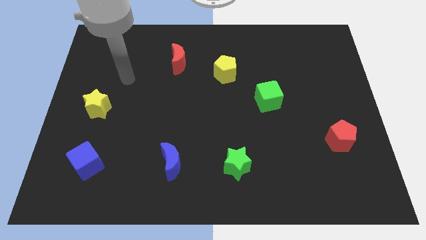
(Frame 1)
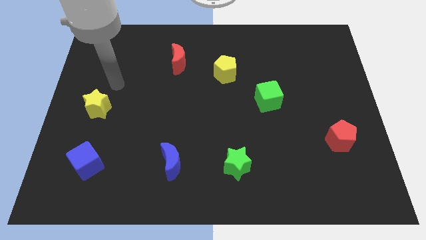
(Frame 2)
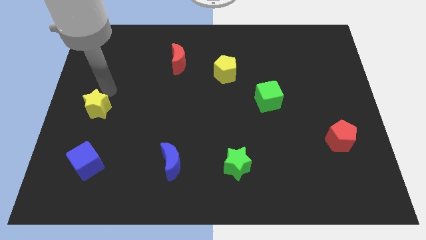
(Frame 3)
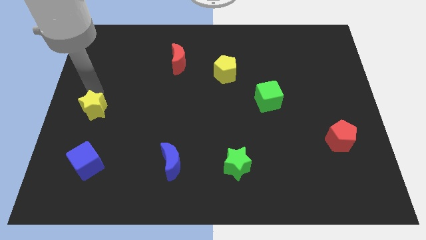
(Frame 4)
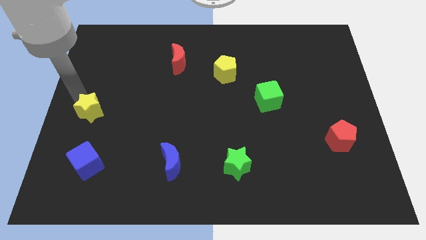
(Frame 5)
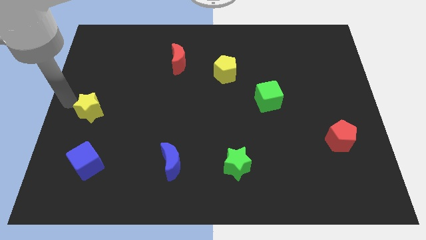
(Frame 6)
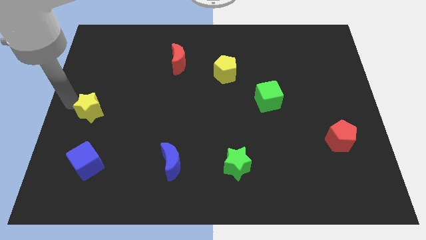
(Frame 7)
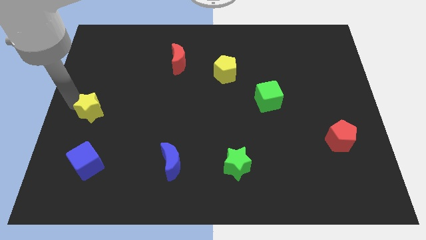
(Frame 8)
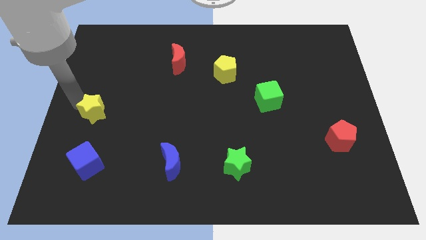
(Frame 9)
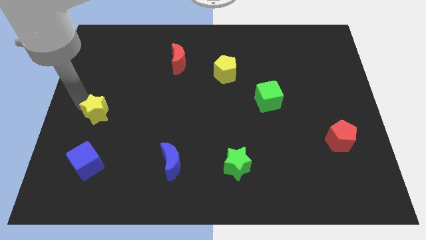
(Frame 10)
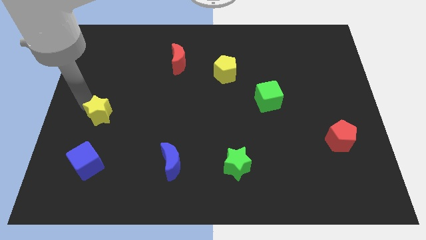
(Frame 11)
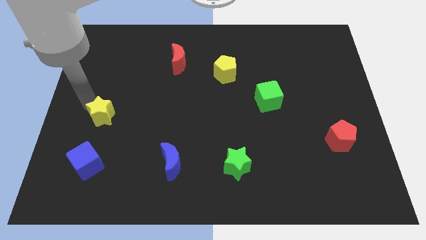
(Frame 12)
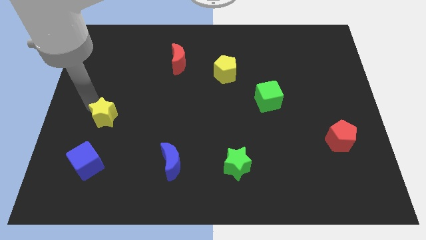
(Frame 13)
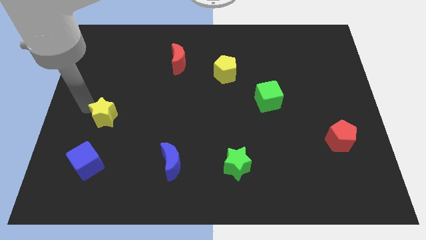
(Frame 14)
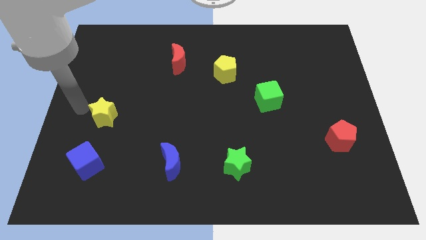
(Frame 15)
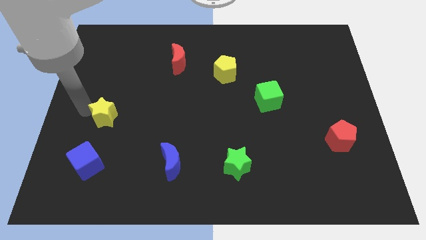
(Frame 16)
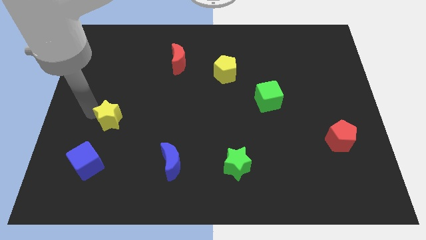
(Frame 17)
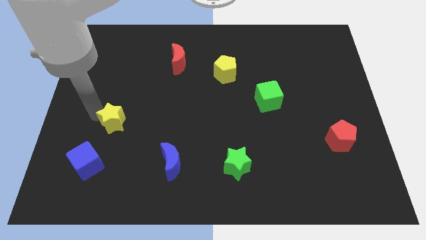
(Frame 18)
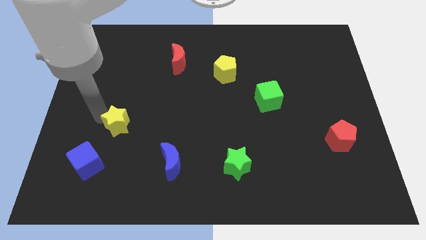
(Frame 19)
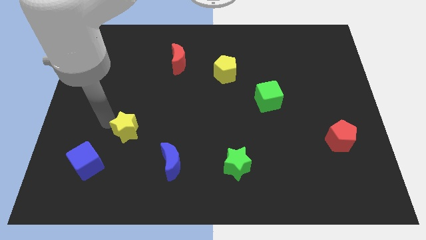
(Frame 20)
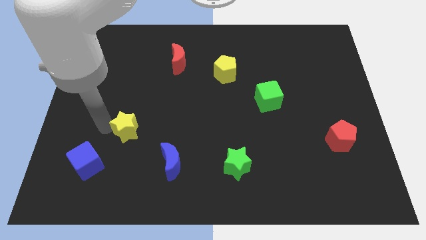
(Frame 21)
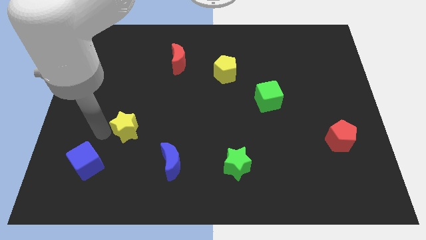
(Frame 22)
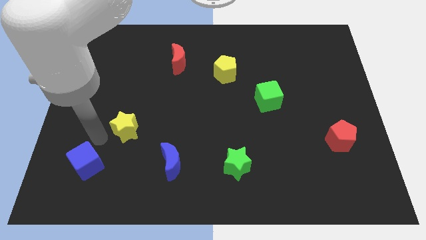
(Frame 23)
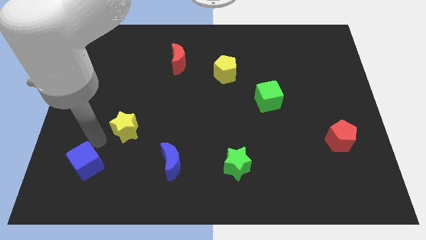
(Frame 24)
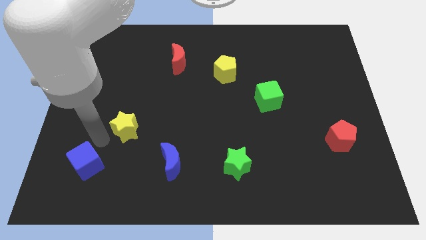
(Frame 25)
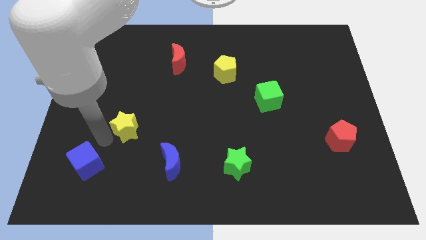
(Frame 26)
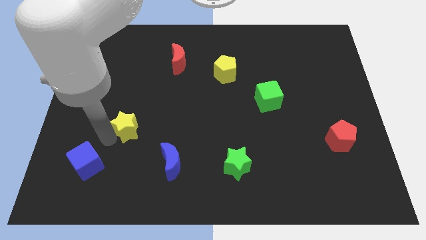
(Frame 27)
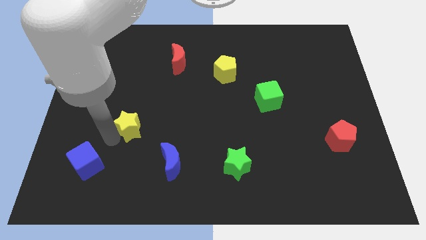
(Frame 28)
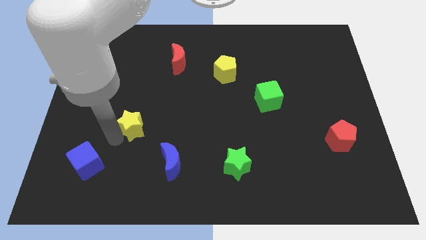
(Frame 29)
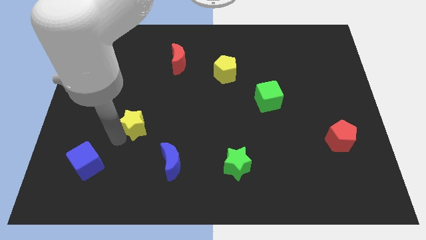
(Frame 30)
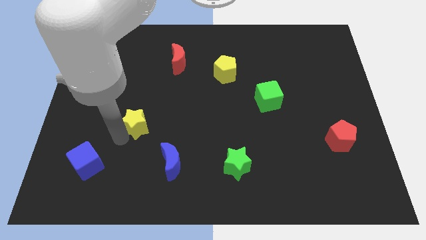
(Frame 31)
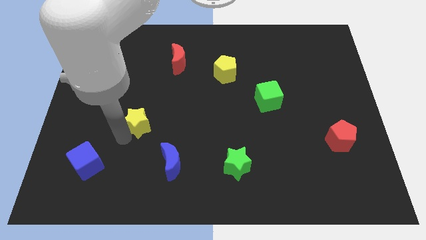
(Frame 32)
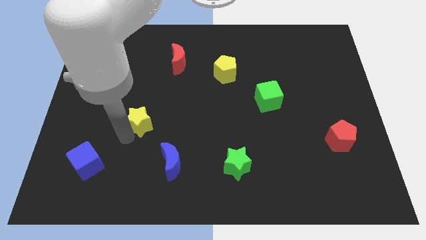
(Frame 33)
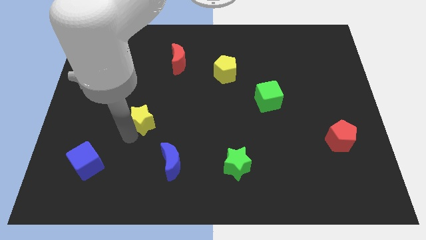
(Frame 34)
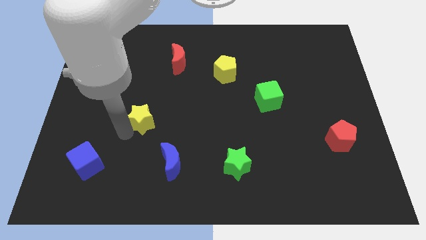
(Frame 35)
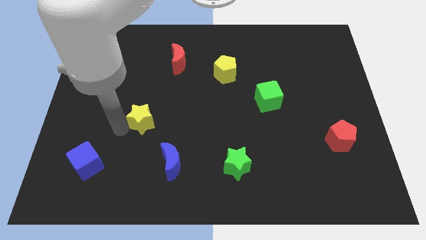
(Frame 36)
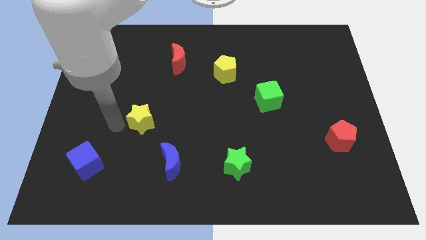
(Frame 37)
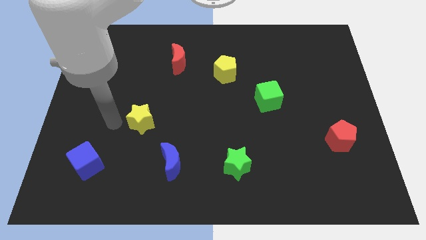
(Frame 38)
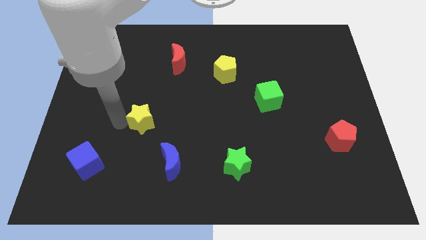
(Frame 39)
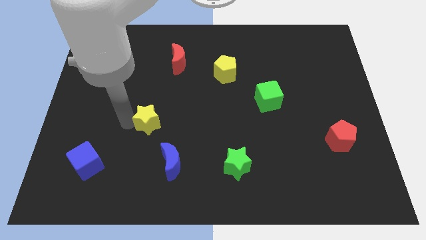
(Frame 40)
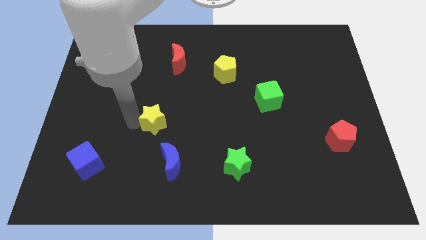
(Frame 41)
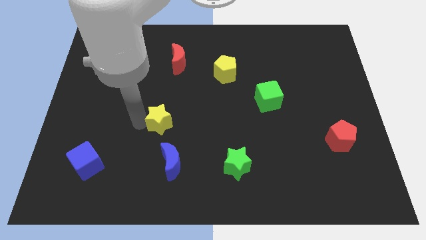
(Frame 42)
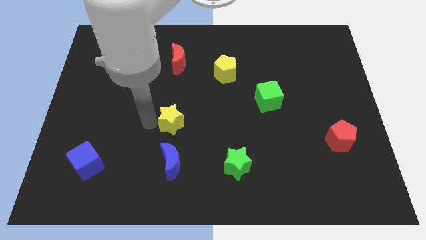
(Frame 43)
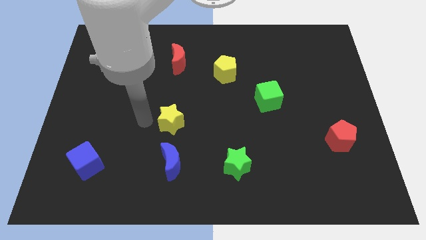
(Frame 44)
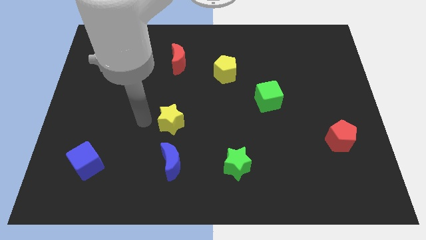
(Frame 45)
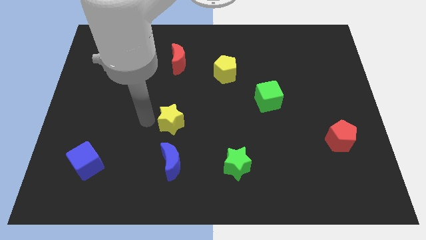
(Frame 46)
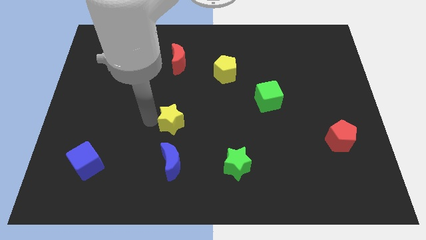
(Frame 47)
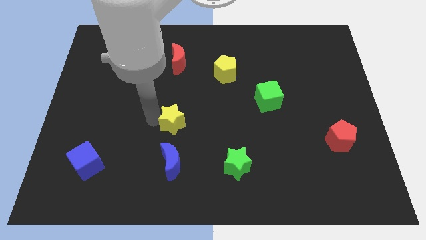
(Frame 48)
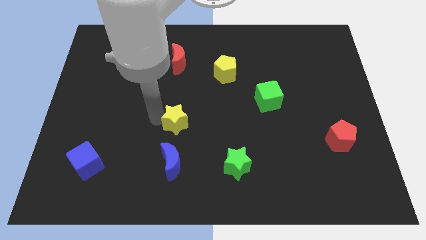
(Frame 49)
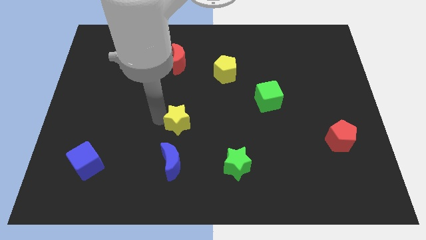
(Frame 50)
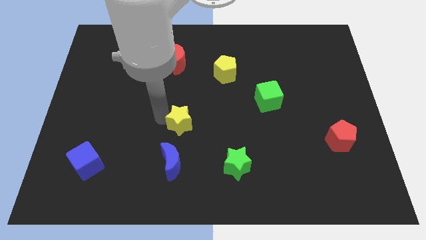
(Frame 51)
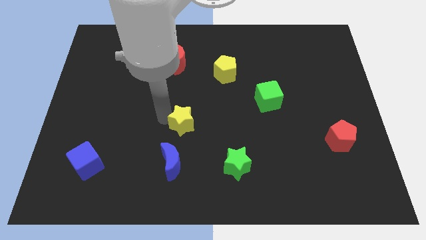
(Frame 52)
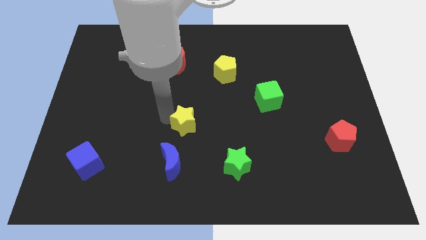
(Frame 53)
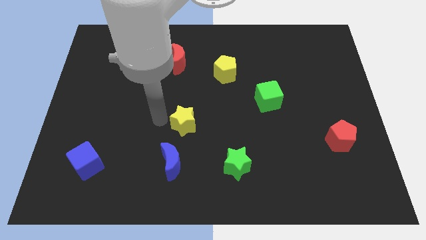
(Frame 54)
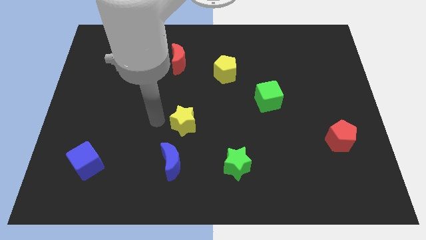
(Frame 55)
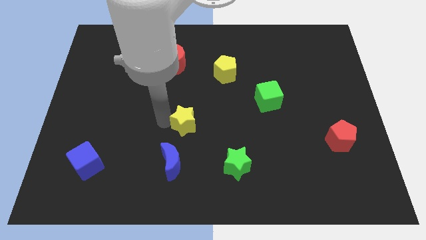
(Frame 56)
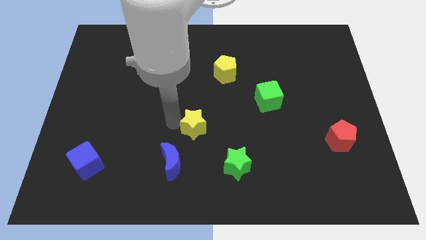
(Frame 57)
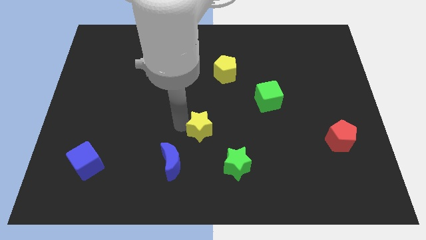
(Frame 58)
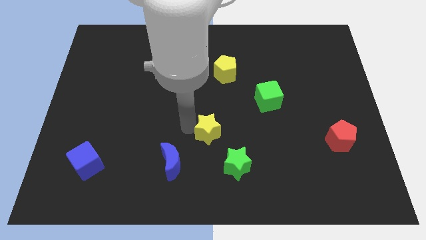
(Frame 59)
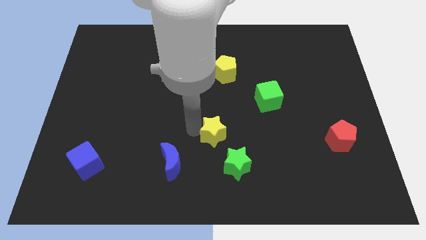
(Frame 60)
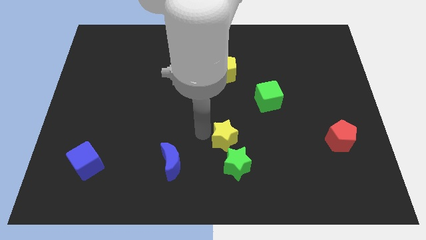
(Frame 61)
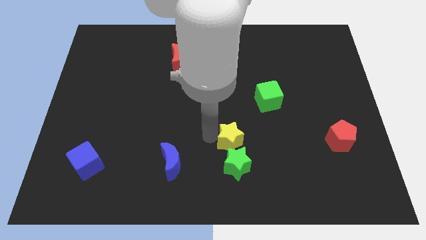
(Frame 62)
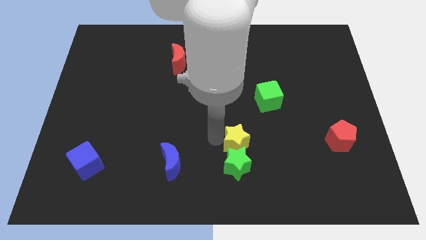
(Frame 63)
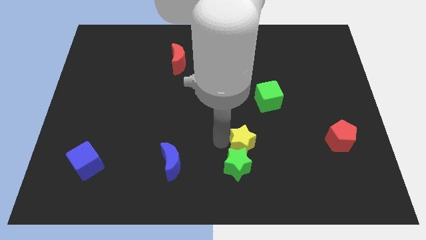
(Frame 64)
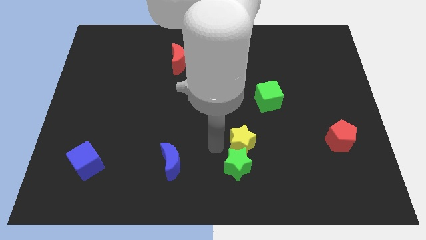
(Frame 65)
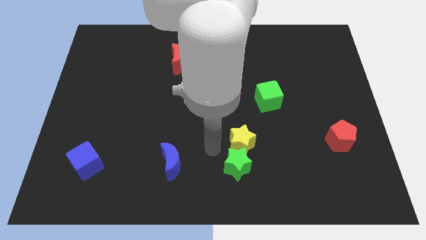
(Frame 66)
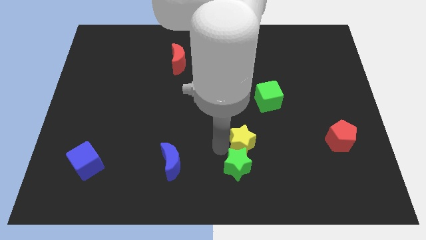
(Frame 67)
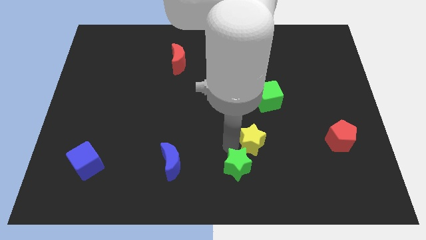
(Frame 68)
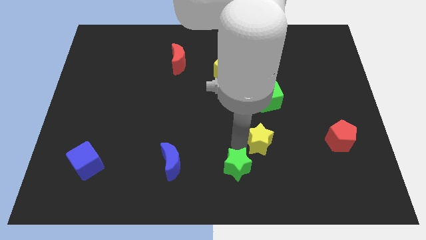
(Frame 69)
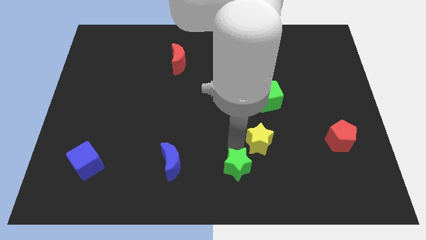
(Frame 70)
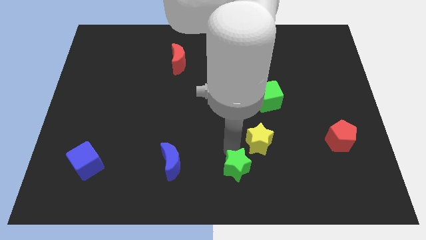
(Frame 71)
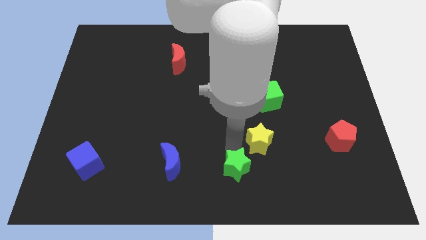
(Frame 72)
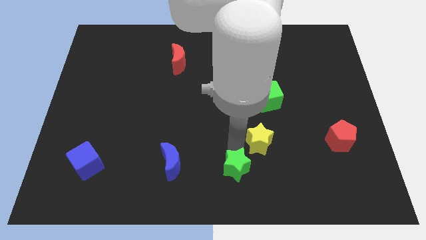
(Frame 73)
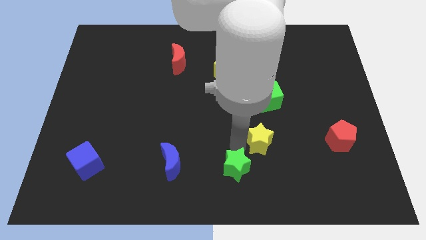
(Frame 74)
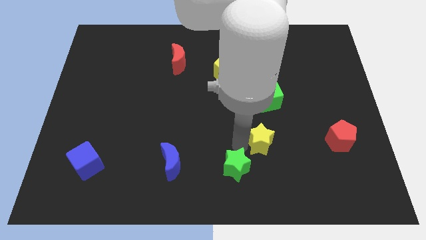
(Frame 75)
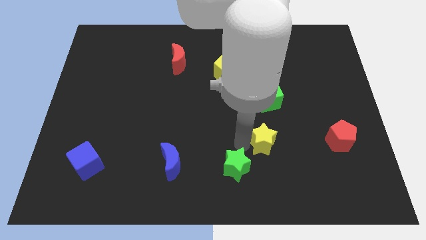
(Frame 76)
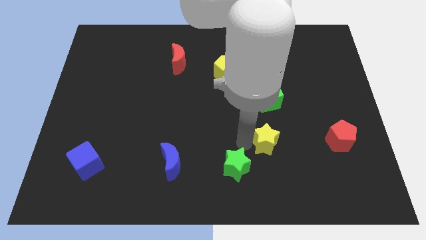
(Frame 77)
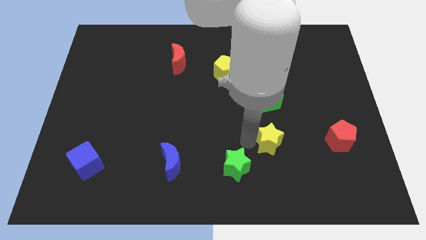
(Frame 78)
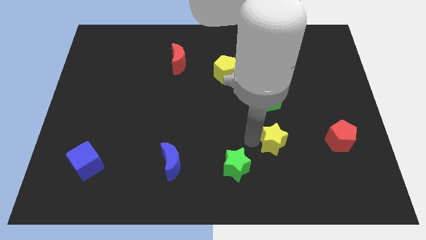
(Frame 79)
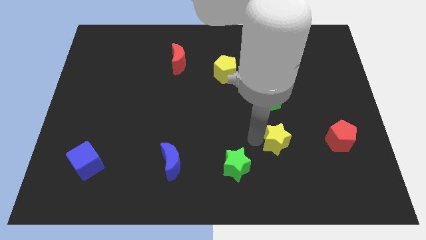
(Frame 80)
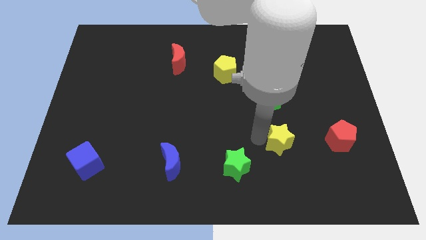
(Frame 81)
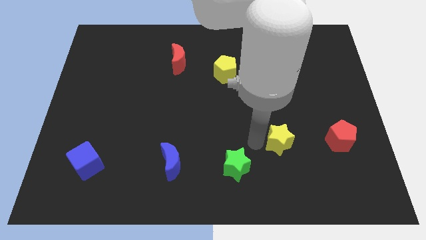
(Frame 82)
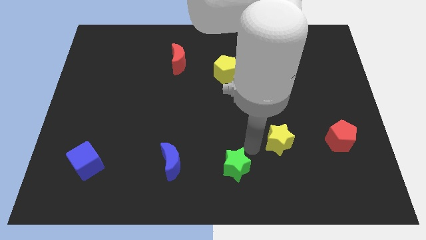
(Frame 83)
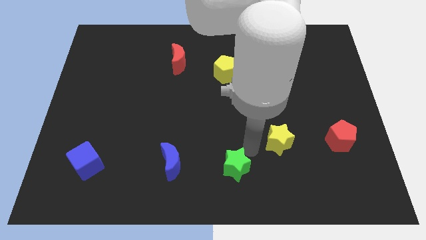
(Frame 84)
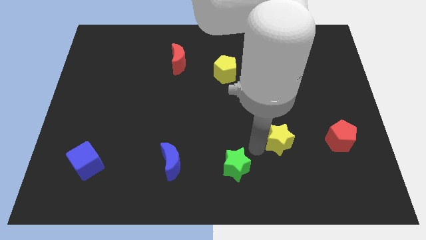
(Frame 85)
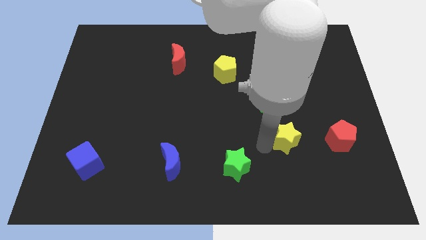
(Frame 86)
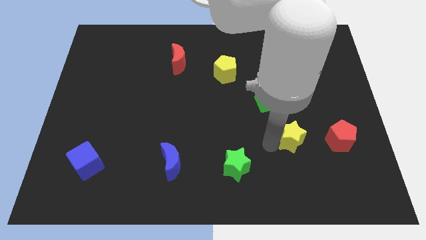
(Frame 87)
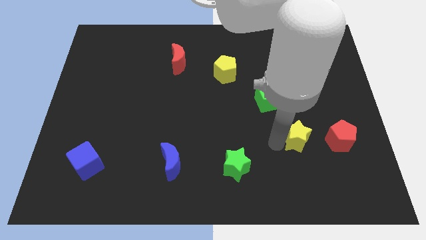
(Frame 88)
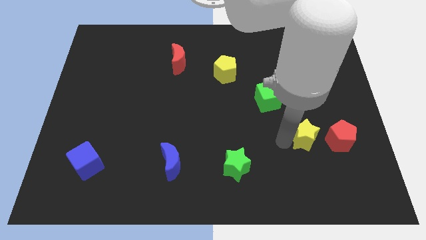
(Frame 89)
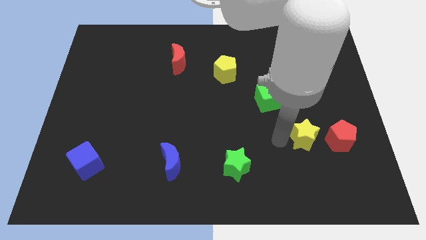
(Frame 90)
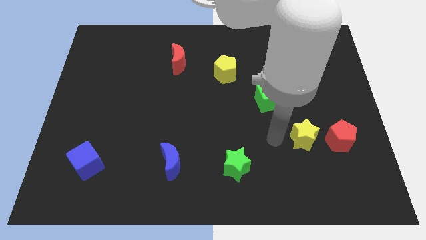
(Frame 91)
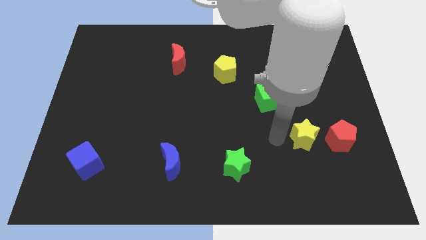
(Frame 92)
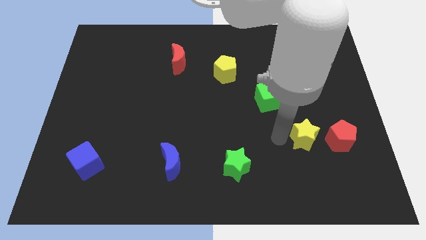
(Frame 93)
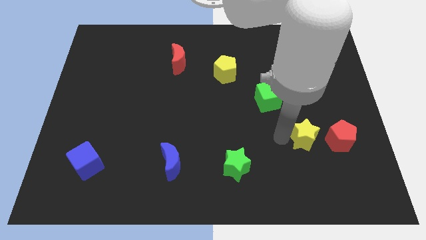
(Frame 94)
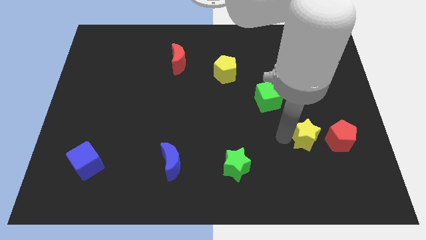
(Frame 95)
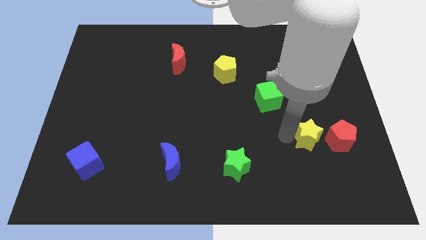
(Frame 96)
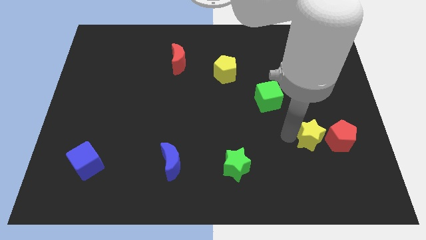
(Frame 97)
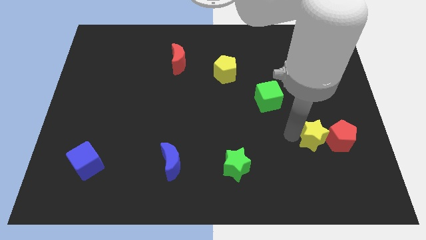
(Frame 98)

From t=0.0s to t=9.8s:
move the yellow star towards the red pentagon
